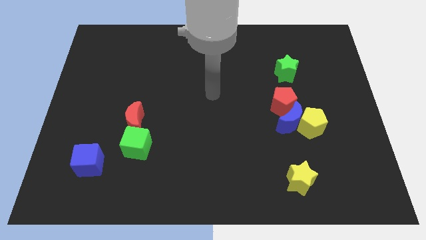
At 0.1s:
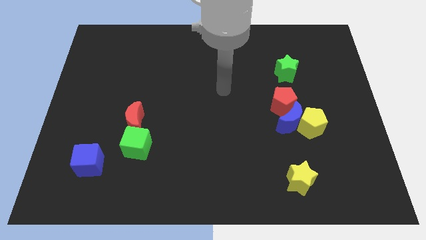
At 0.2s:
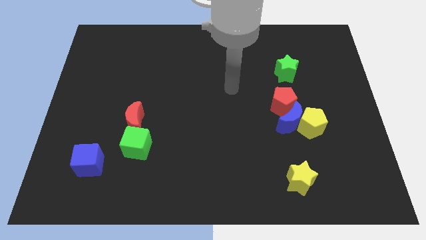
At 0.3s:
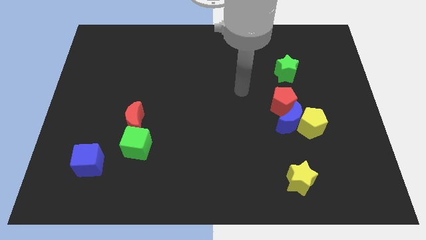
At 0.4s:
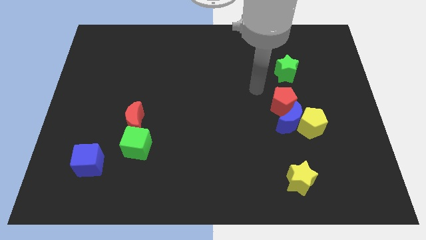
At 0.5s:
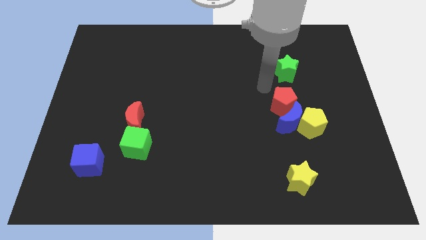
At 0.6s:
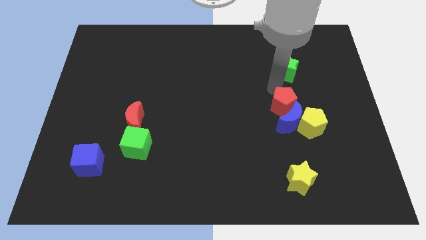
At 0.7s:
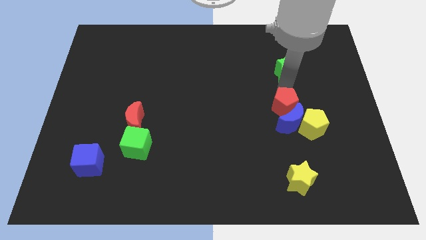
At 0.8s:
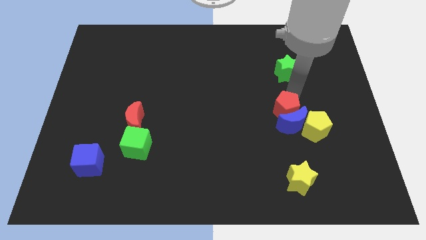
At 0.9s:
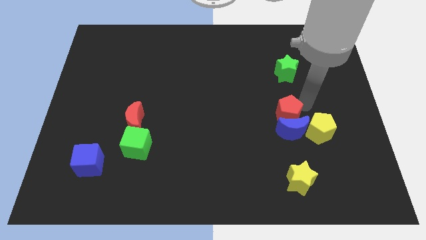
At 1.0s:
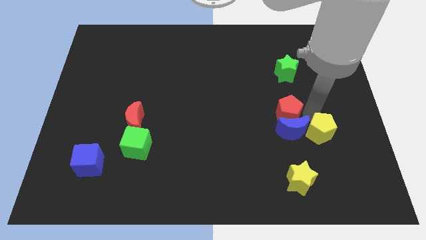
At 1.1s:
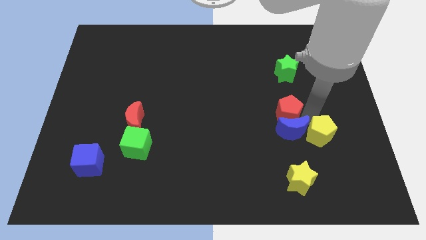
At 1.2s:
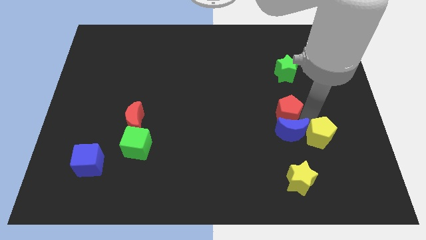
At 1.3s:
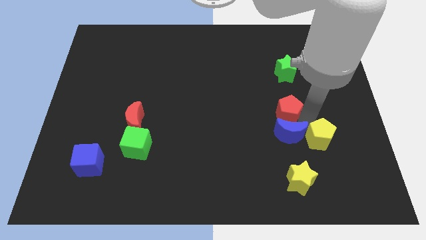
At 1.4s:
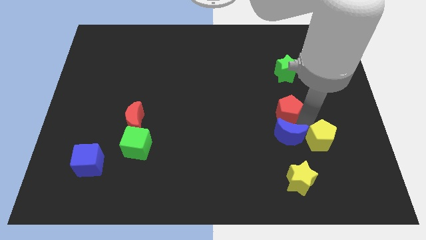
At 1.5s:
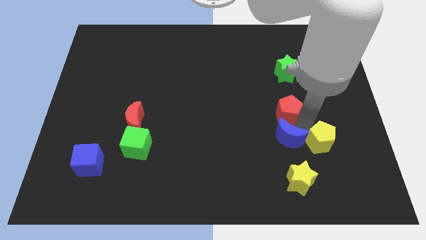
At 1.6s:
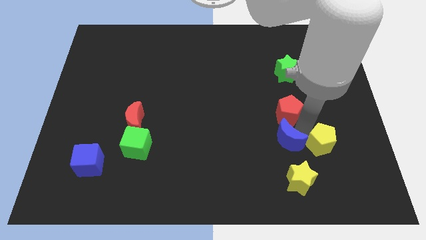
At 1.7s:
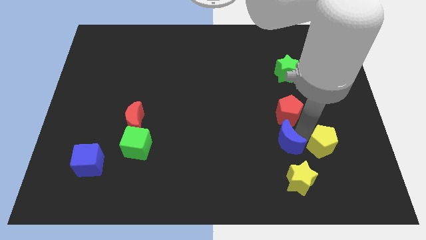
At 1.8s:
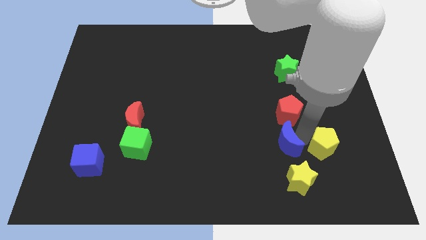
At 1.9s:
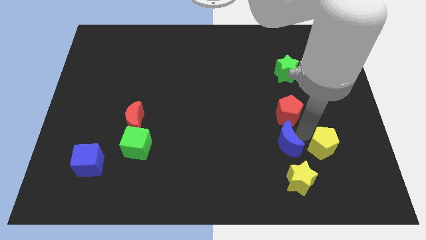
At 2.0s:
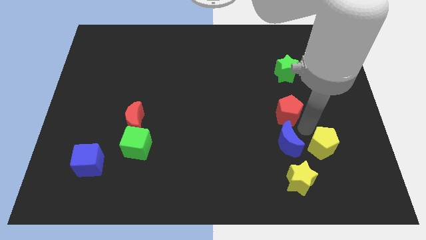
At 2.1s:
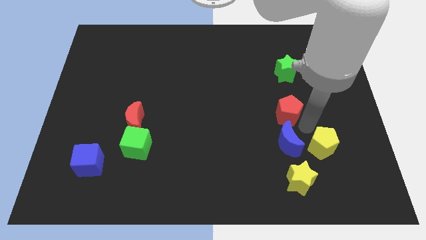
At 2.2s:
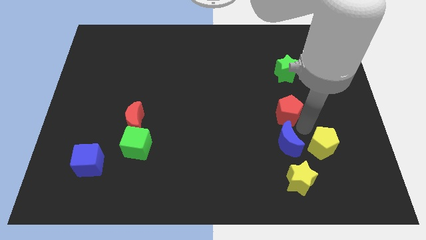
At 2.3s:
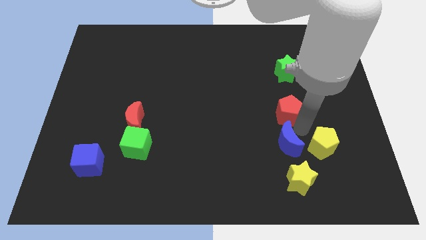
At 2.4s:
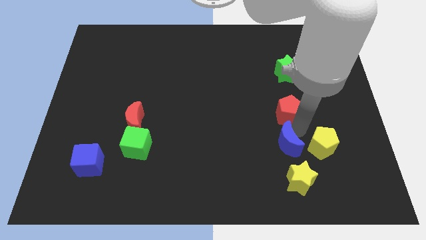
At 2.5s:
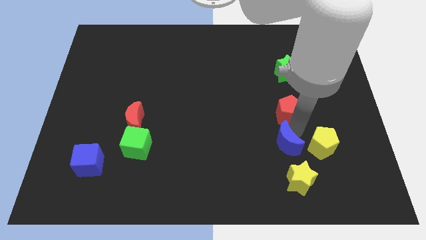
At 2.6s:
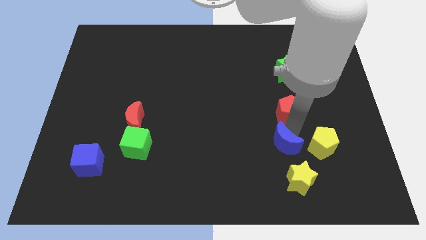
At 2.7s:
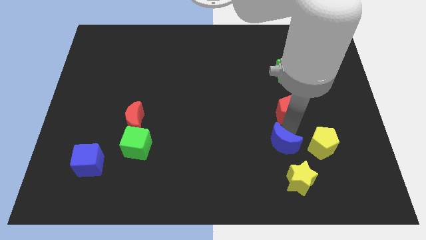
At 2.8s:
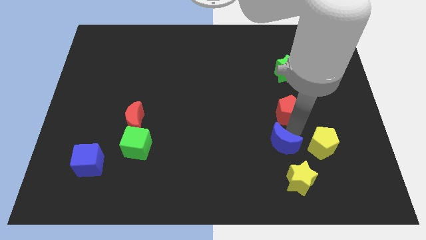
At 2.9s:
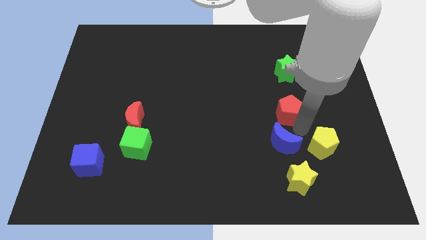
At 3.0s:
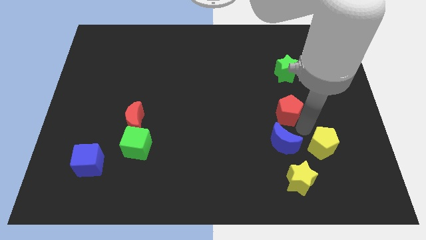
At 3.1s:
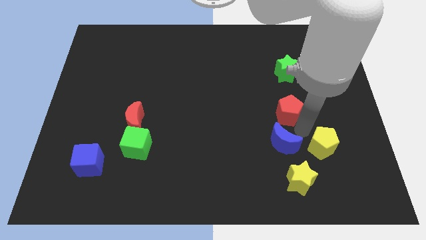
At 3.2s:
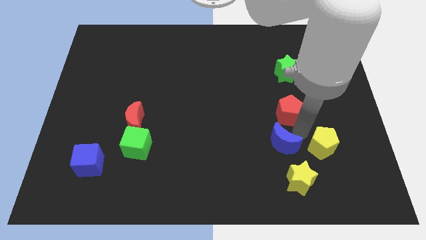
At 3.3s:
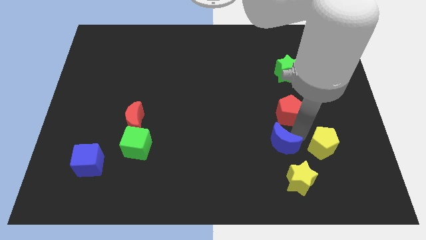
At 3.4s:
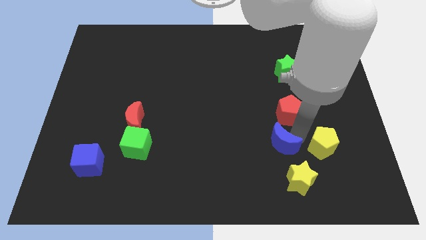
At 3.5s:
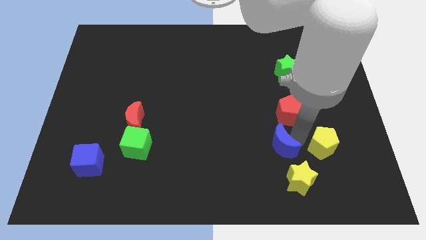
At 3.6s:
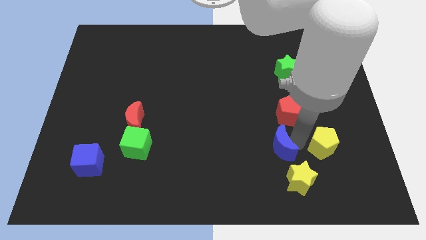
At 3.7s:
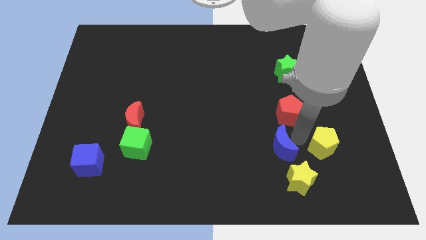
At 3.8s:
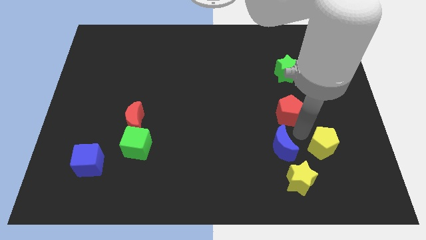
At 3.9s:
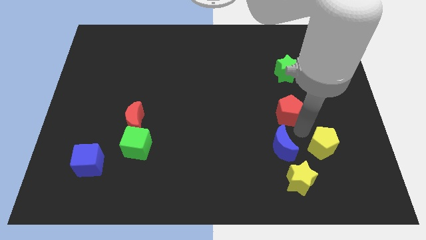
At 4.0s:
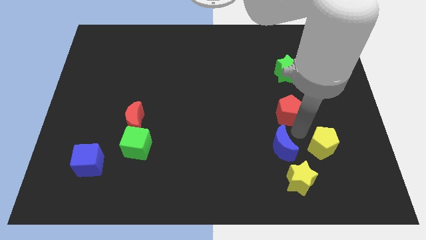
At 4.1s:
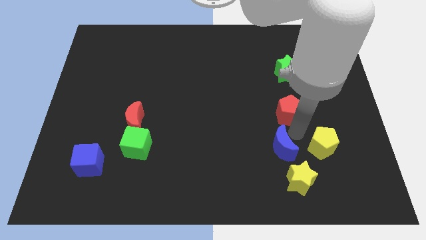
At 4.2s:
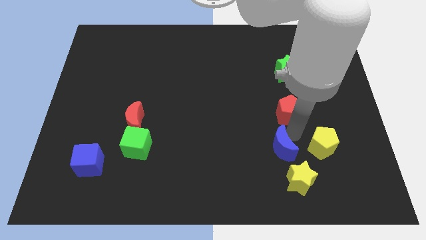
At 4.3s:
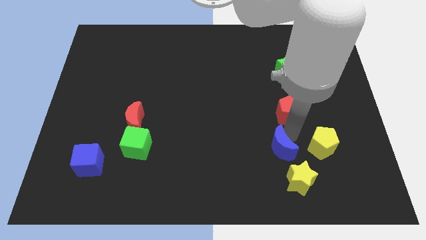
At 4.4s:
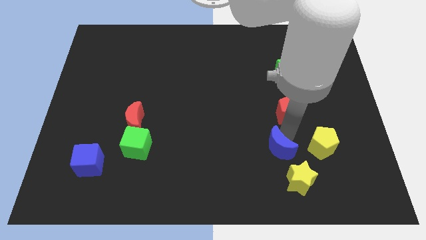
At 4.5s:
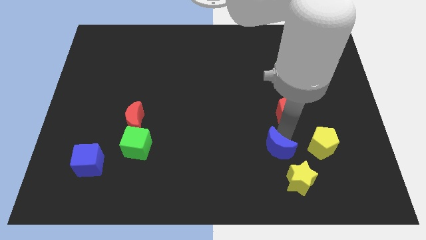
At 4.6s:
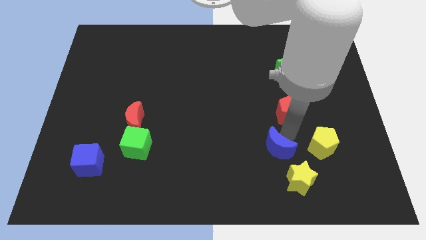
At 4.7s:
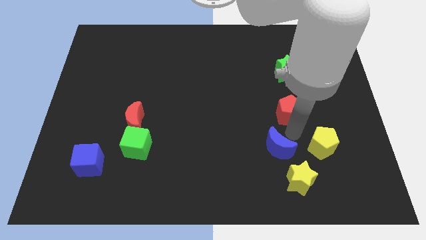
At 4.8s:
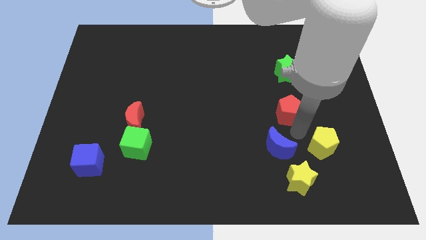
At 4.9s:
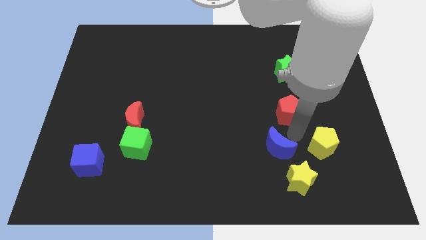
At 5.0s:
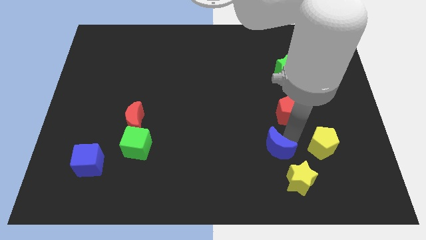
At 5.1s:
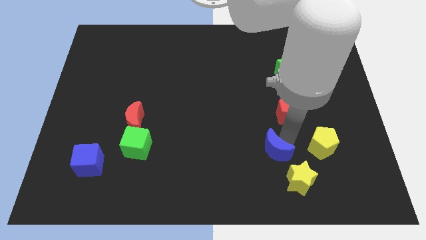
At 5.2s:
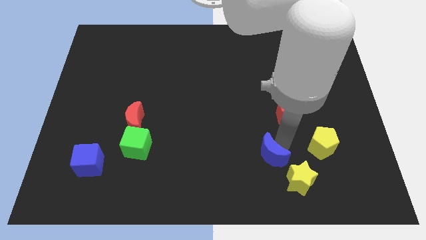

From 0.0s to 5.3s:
separate the blue moon from the yellow pentagon and red pentagon

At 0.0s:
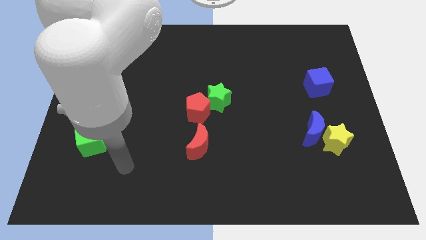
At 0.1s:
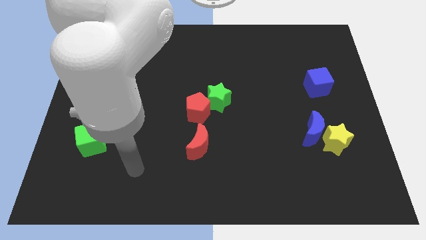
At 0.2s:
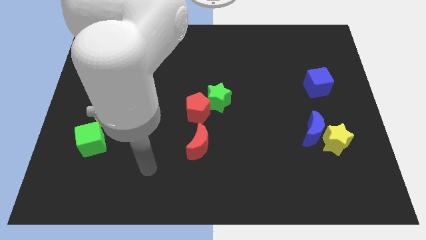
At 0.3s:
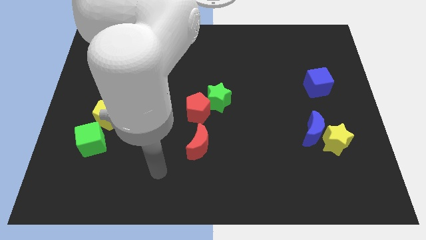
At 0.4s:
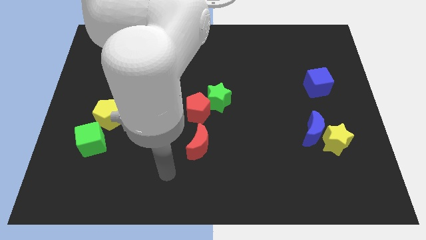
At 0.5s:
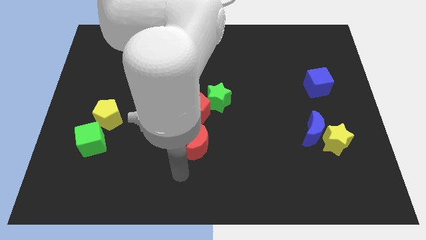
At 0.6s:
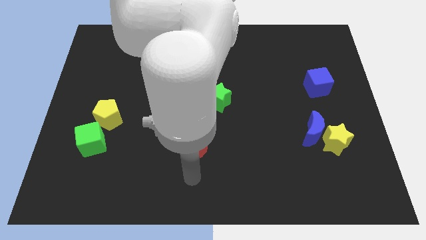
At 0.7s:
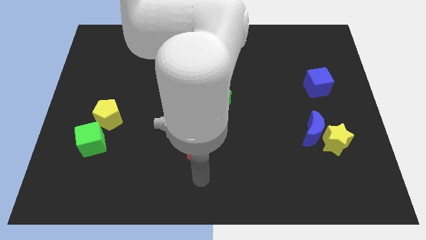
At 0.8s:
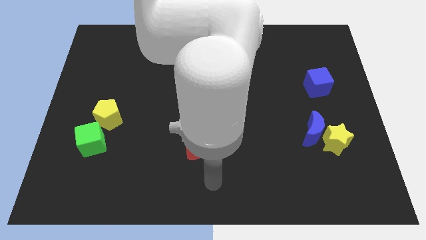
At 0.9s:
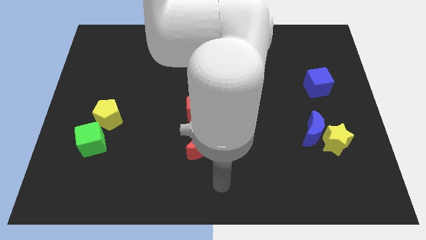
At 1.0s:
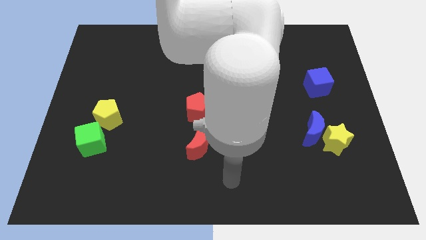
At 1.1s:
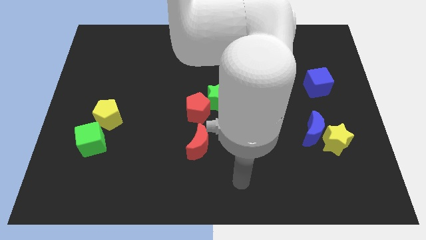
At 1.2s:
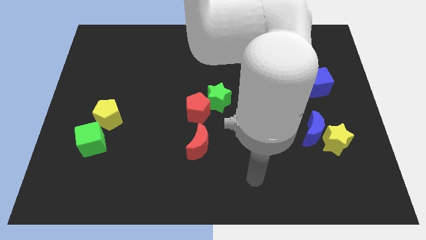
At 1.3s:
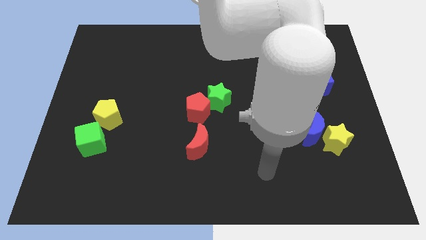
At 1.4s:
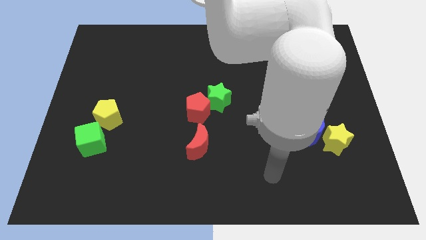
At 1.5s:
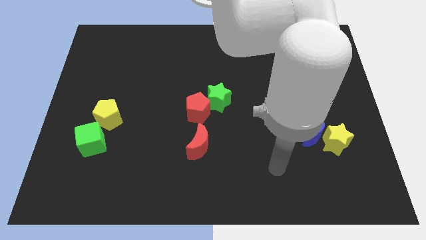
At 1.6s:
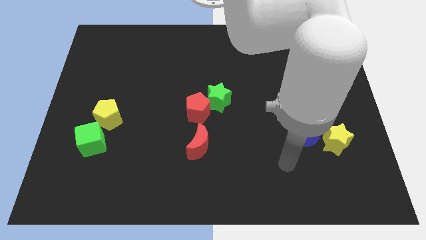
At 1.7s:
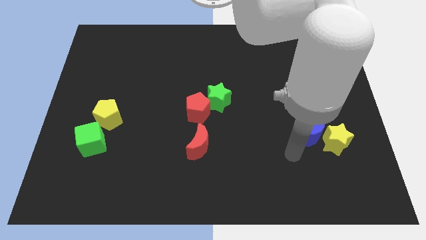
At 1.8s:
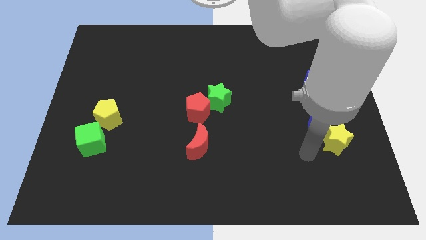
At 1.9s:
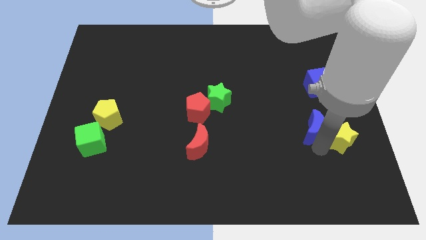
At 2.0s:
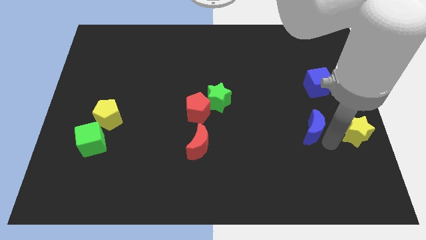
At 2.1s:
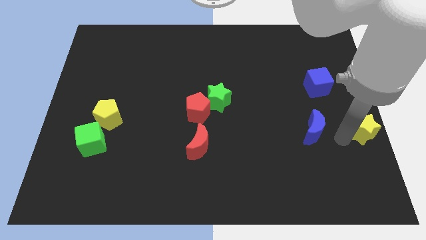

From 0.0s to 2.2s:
separate the blue moon from the yellow star

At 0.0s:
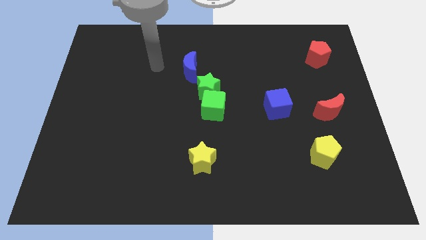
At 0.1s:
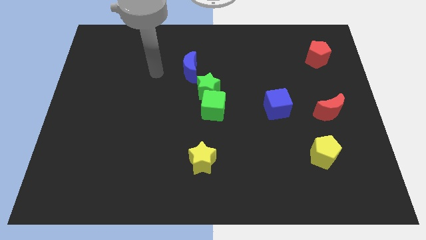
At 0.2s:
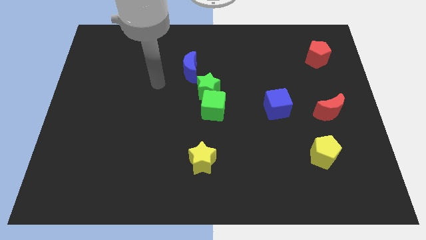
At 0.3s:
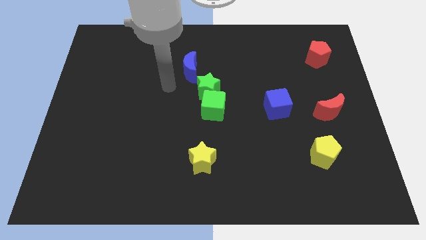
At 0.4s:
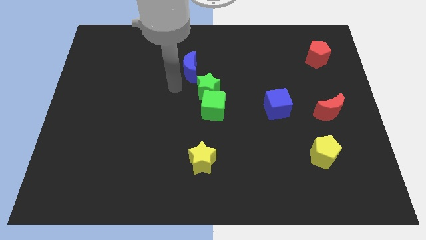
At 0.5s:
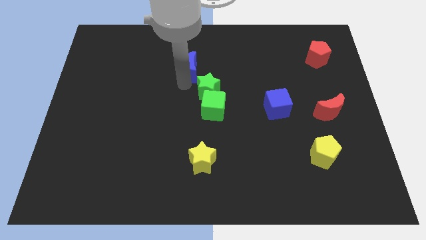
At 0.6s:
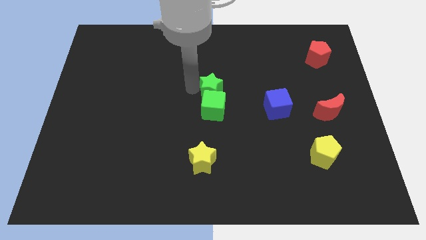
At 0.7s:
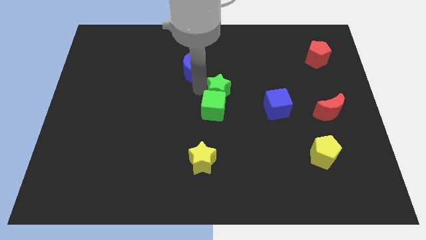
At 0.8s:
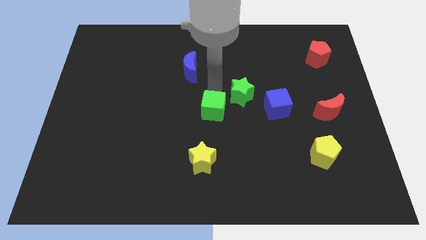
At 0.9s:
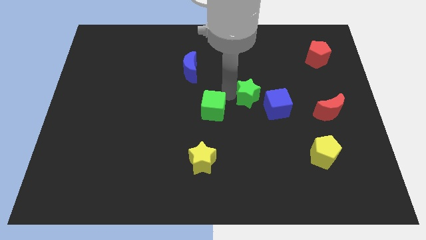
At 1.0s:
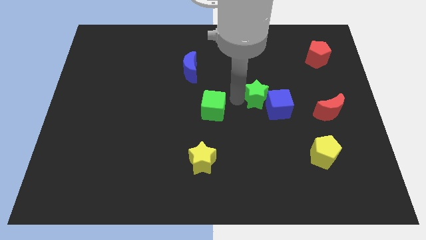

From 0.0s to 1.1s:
move the green cube away from the green star

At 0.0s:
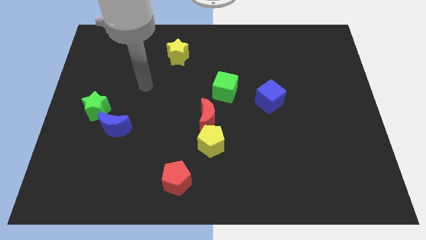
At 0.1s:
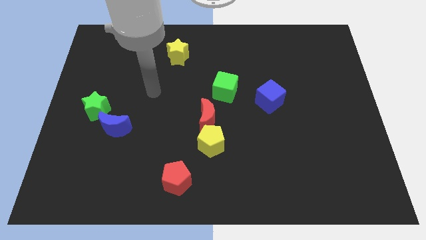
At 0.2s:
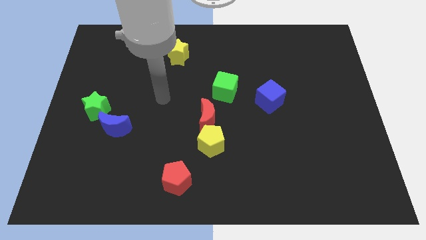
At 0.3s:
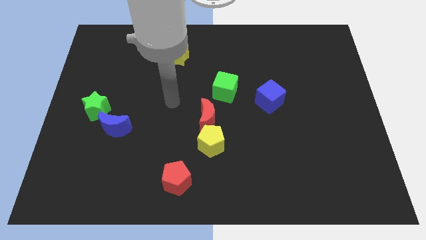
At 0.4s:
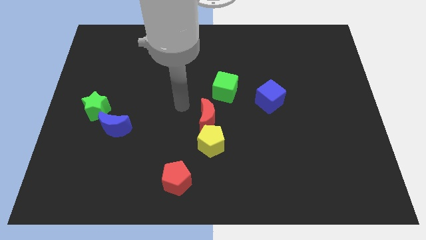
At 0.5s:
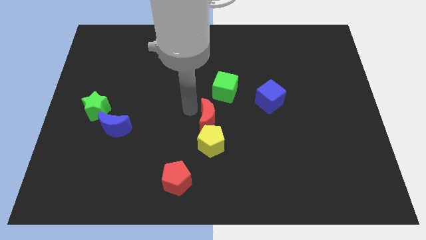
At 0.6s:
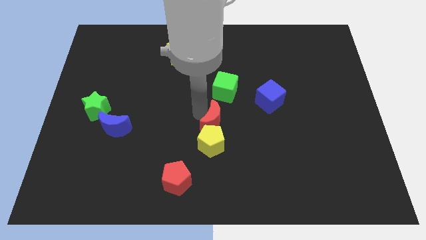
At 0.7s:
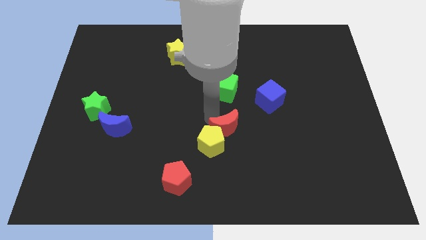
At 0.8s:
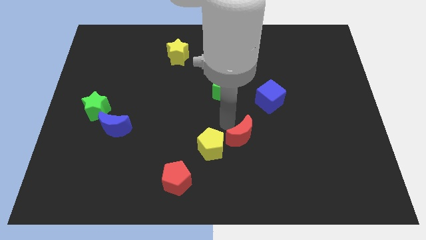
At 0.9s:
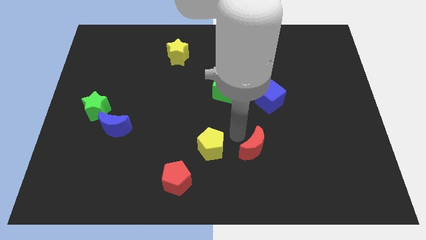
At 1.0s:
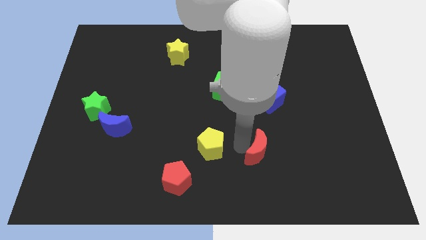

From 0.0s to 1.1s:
move the yellow pentagon away from the red moon
